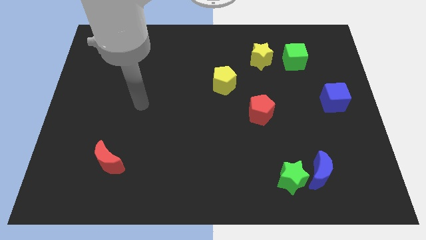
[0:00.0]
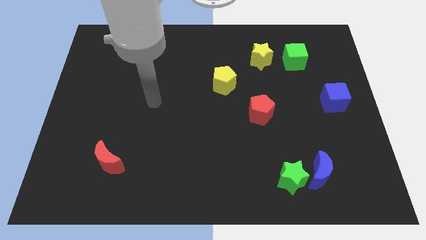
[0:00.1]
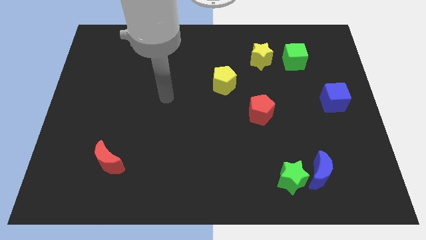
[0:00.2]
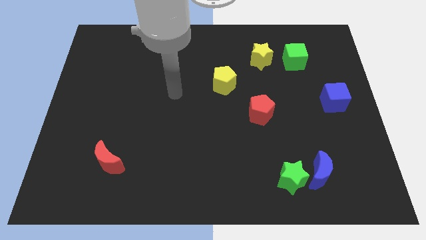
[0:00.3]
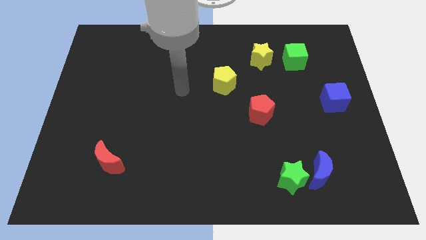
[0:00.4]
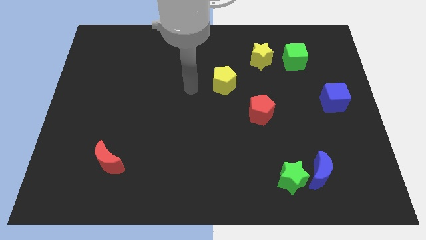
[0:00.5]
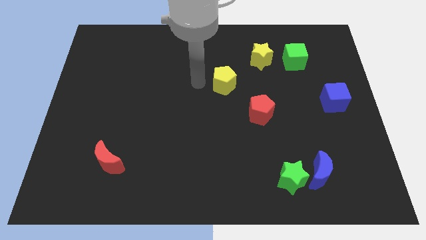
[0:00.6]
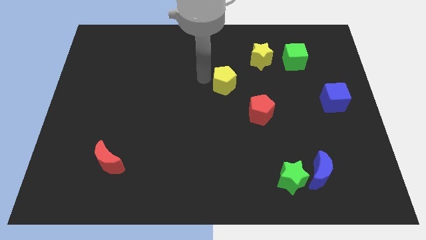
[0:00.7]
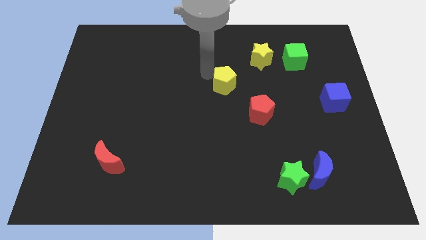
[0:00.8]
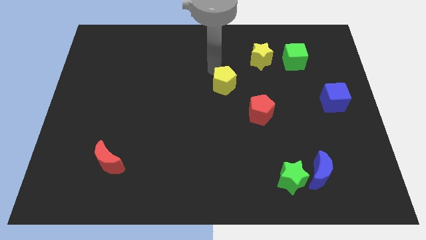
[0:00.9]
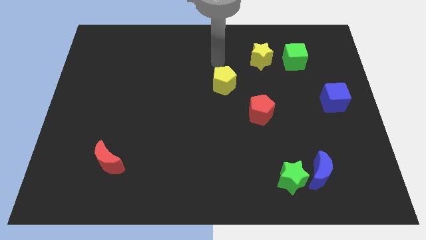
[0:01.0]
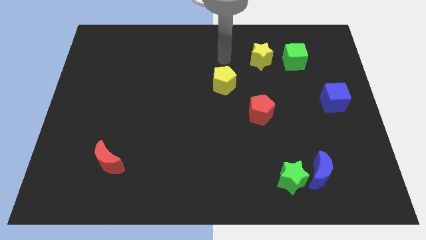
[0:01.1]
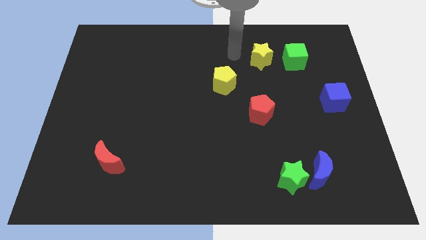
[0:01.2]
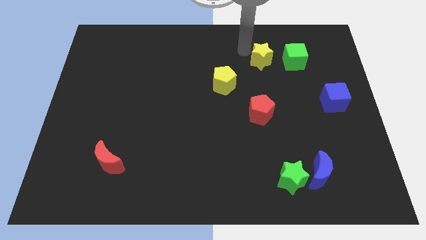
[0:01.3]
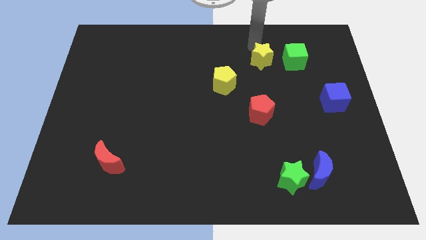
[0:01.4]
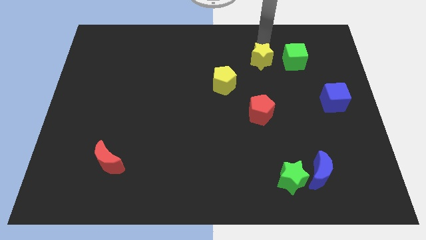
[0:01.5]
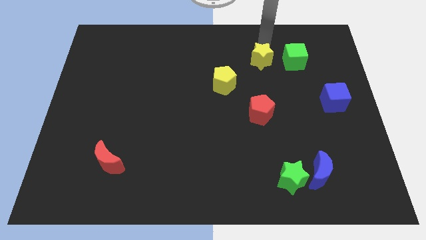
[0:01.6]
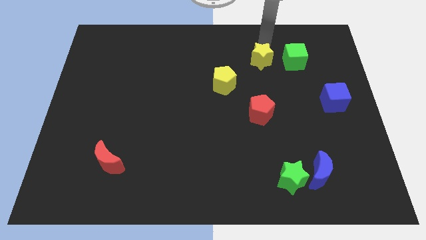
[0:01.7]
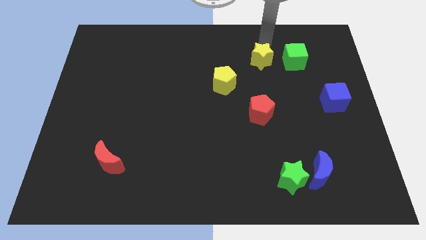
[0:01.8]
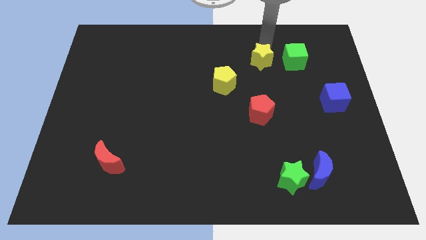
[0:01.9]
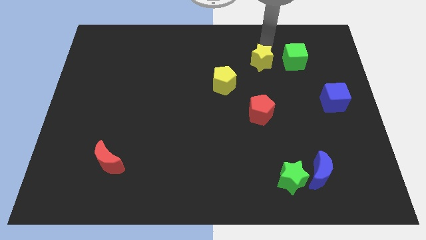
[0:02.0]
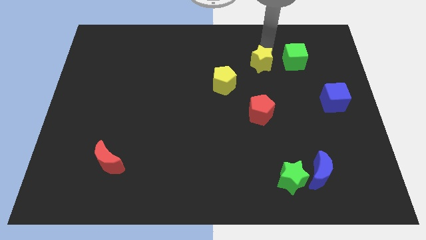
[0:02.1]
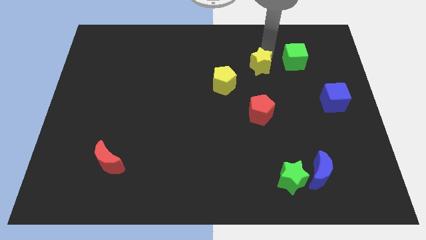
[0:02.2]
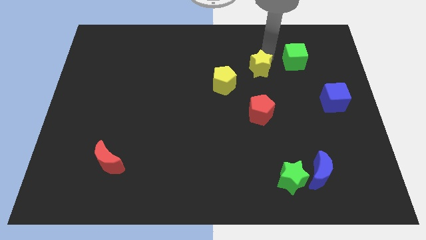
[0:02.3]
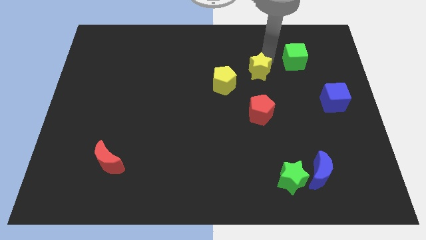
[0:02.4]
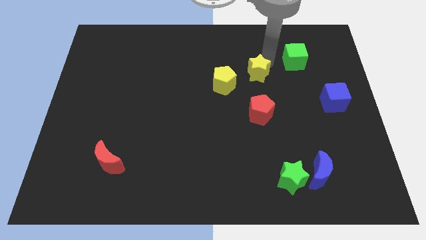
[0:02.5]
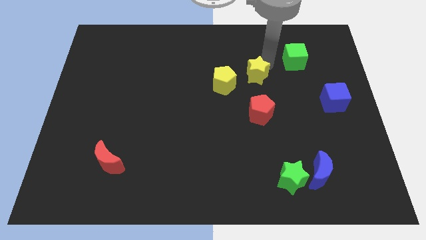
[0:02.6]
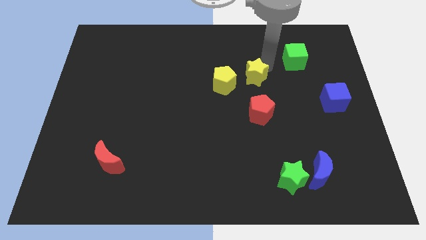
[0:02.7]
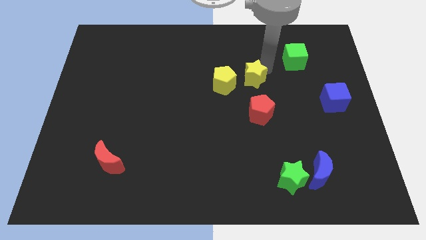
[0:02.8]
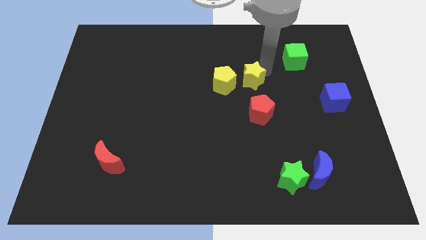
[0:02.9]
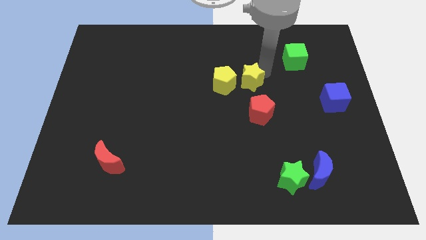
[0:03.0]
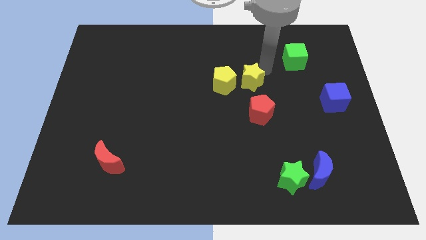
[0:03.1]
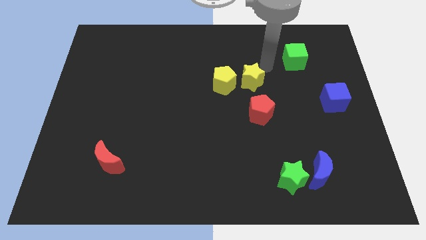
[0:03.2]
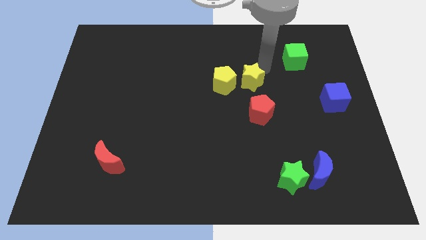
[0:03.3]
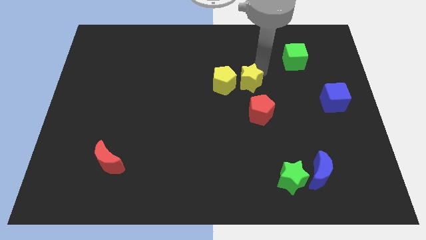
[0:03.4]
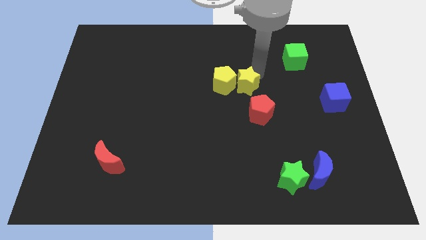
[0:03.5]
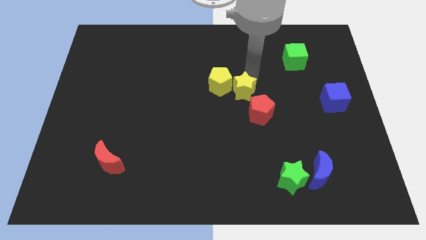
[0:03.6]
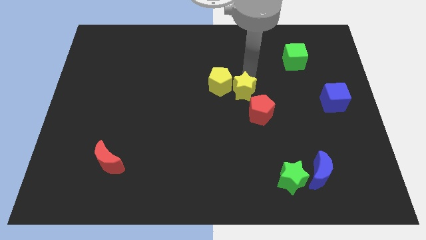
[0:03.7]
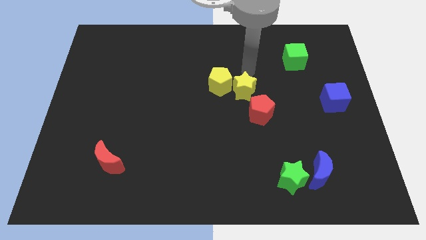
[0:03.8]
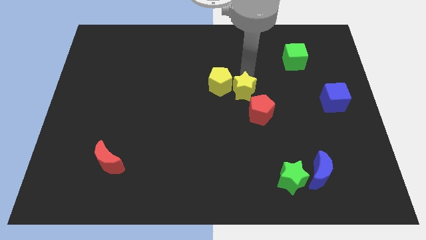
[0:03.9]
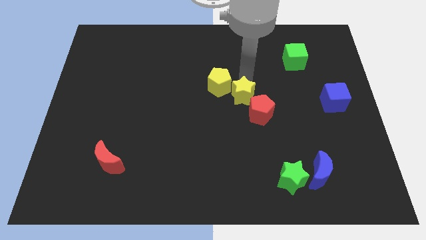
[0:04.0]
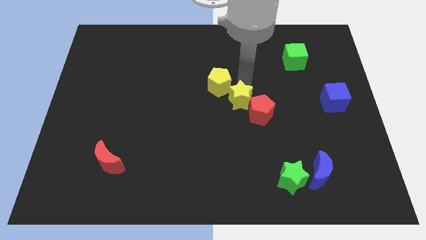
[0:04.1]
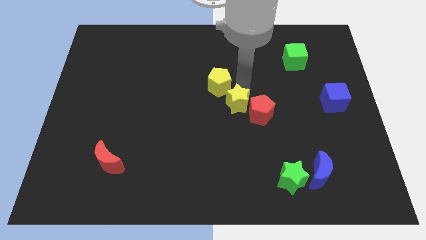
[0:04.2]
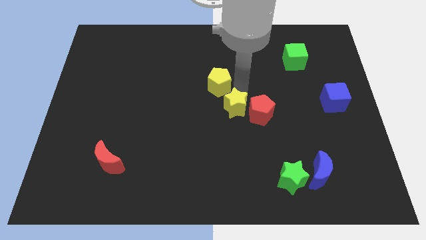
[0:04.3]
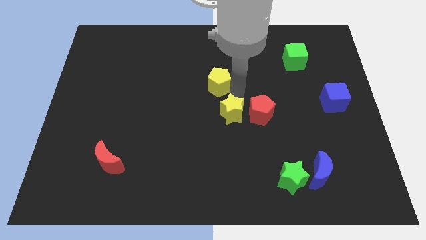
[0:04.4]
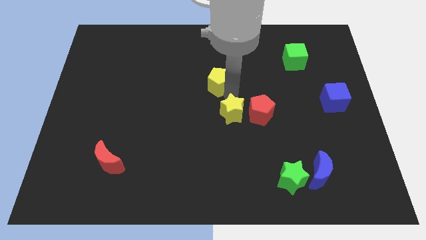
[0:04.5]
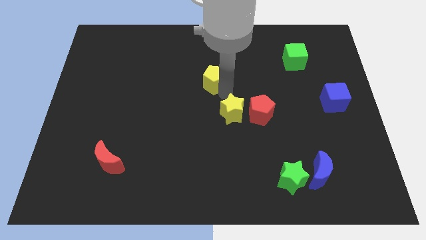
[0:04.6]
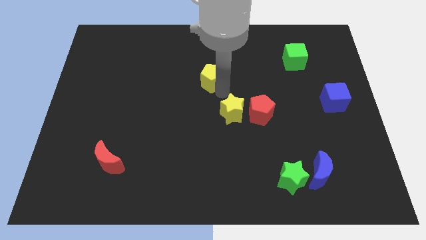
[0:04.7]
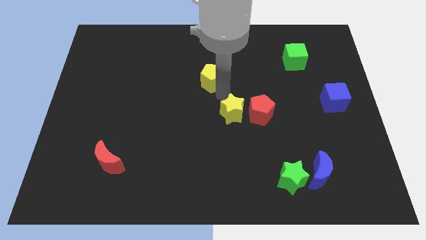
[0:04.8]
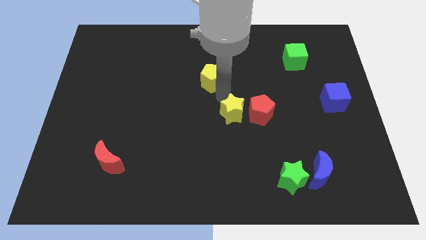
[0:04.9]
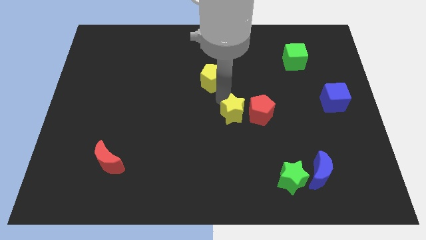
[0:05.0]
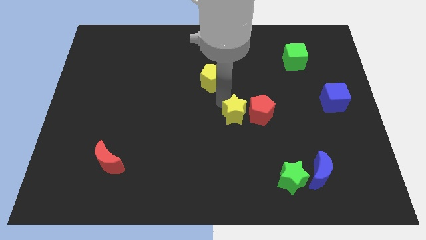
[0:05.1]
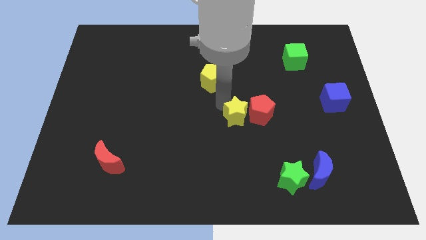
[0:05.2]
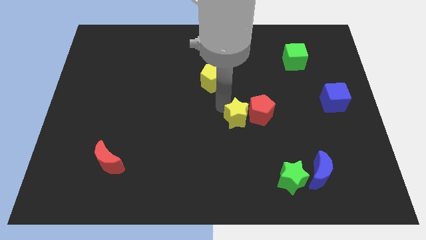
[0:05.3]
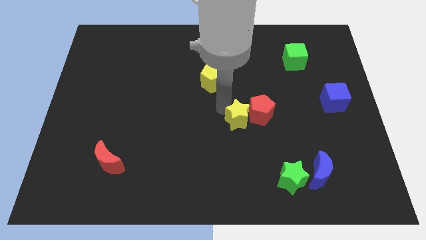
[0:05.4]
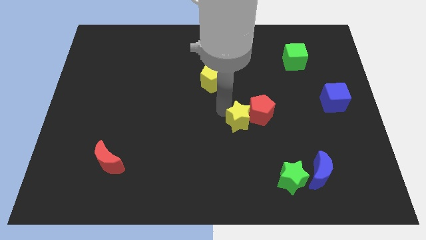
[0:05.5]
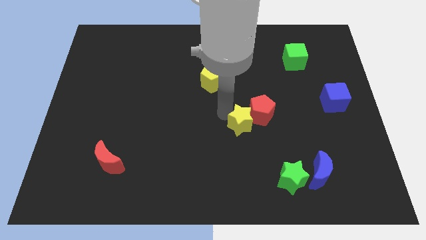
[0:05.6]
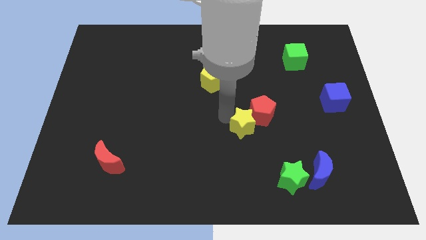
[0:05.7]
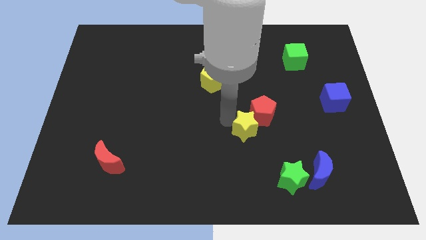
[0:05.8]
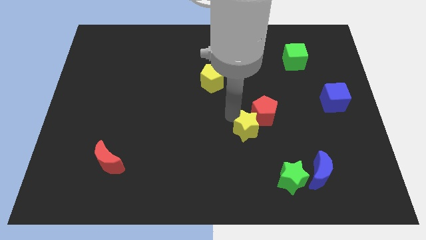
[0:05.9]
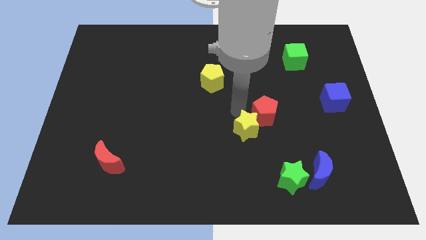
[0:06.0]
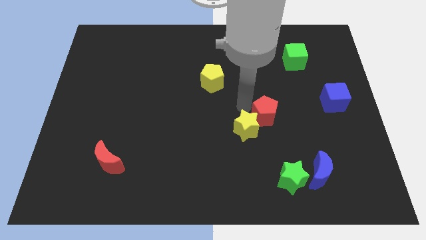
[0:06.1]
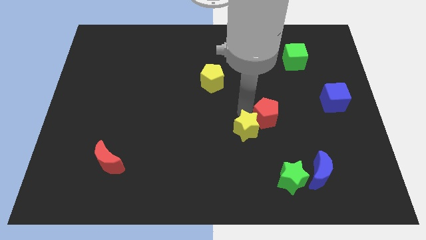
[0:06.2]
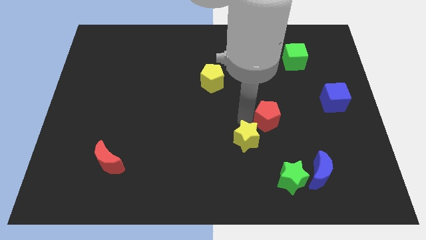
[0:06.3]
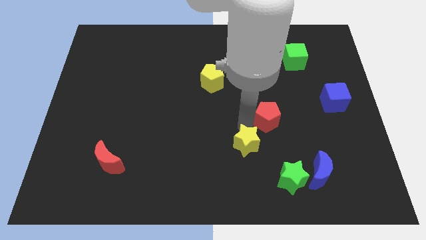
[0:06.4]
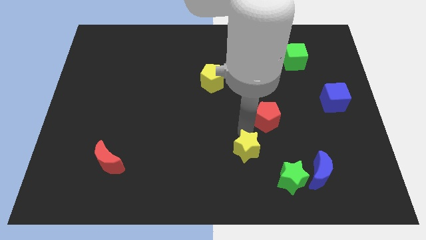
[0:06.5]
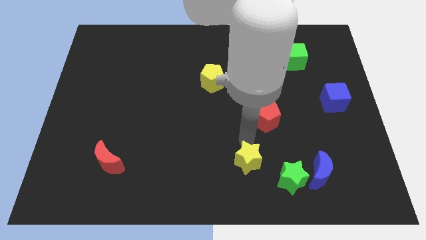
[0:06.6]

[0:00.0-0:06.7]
put the yellow star to the bottom
